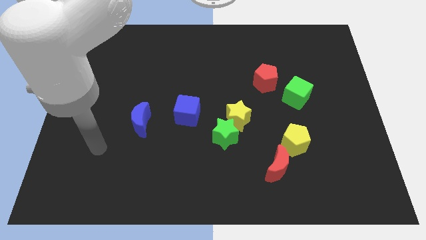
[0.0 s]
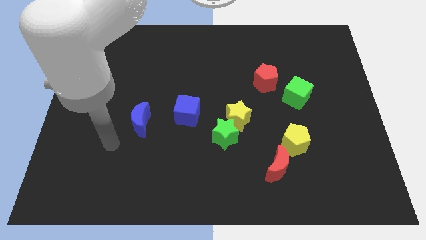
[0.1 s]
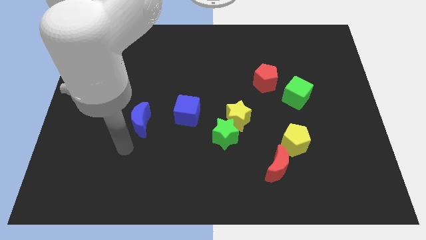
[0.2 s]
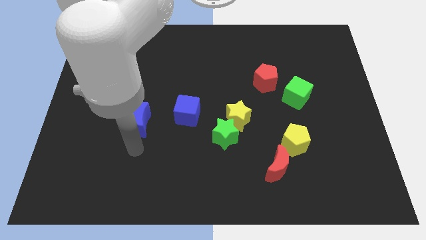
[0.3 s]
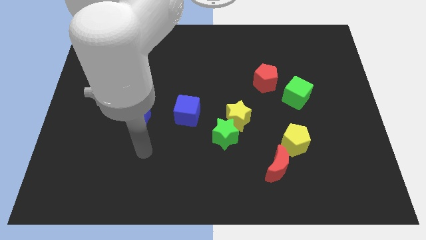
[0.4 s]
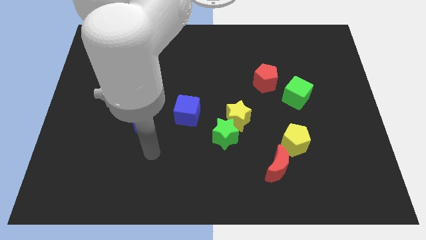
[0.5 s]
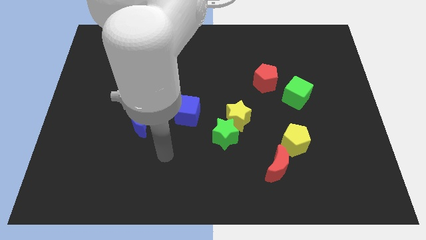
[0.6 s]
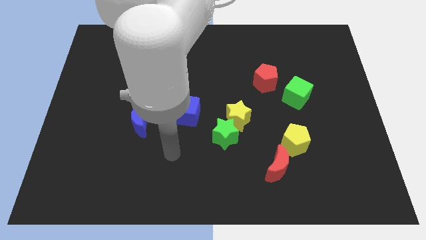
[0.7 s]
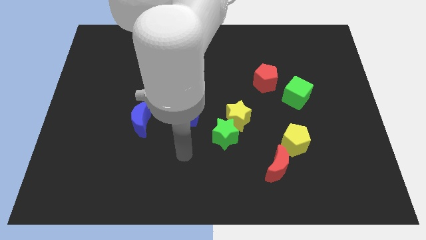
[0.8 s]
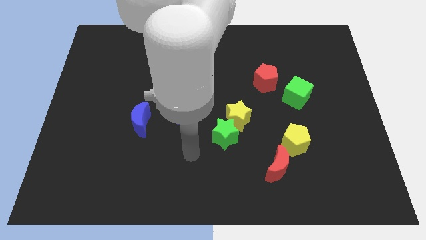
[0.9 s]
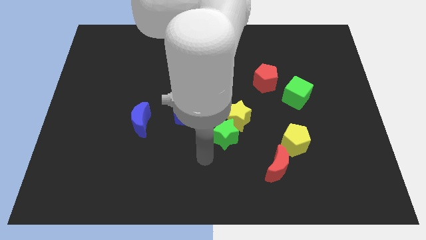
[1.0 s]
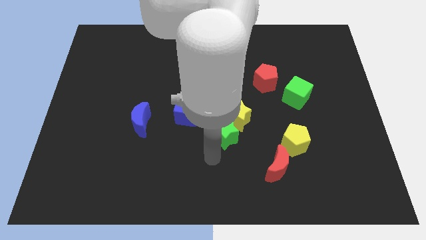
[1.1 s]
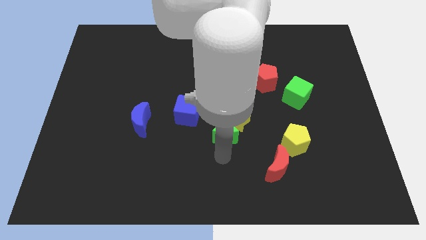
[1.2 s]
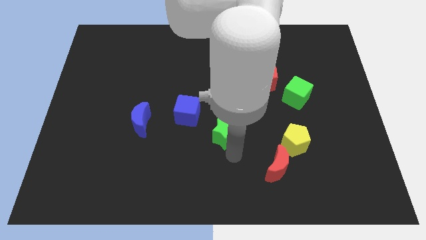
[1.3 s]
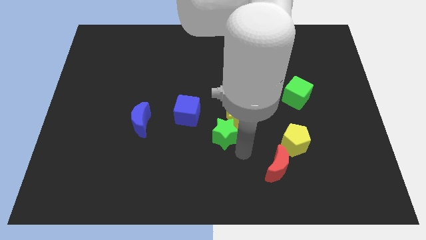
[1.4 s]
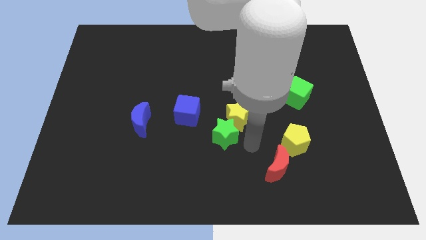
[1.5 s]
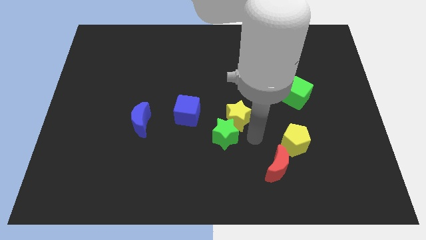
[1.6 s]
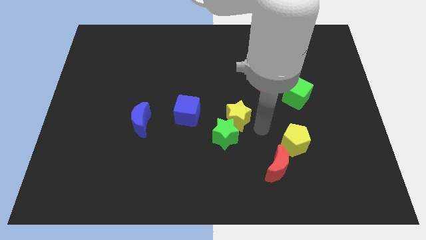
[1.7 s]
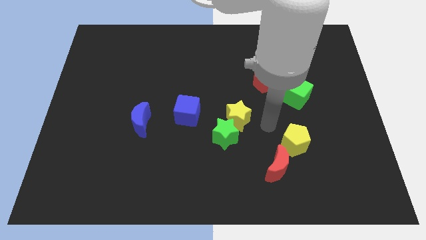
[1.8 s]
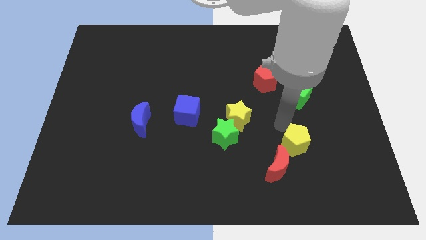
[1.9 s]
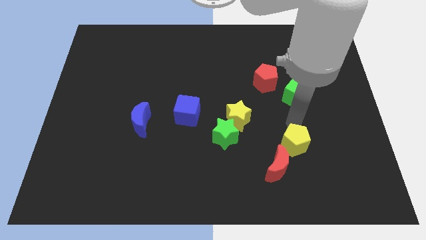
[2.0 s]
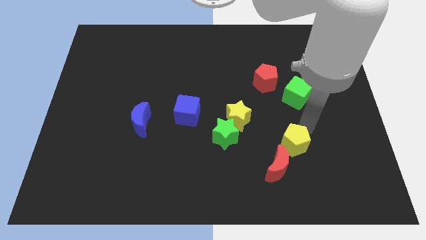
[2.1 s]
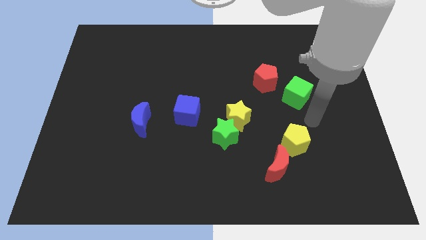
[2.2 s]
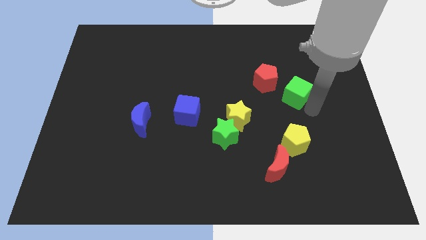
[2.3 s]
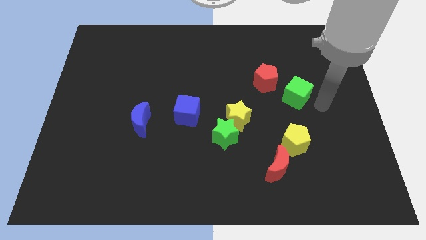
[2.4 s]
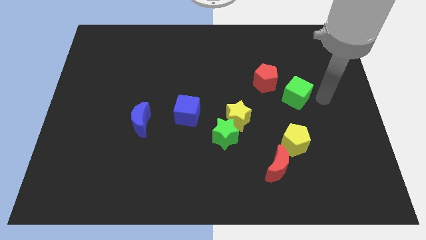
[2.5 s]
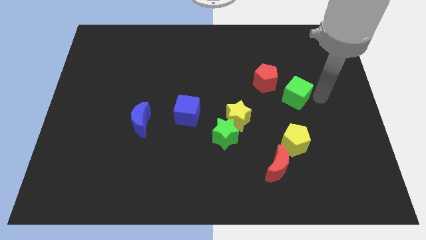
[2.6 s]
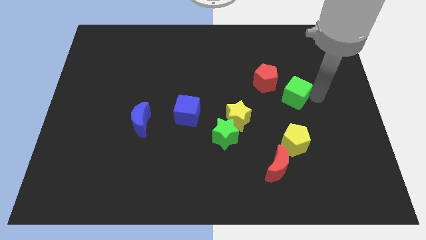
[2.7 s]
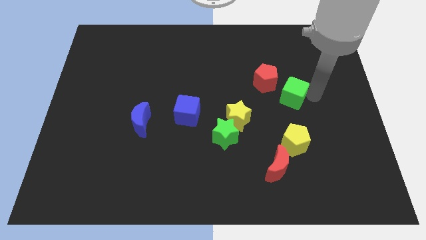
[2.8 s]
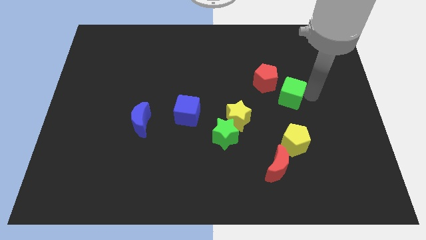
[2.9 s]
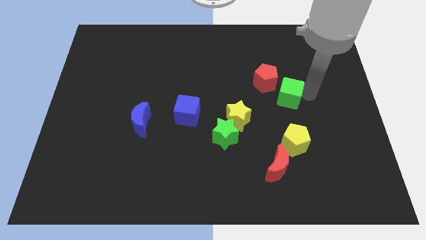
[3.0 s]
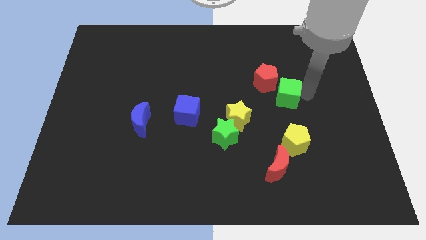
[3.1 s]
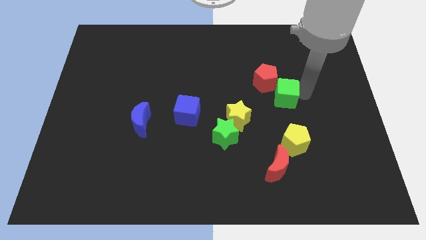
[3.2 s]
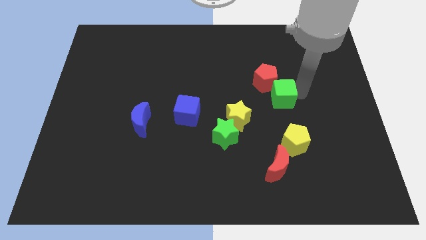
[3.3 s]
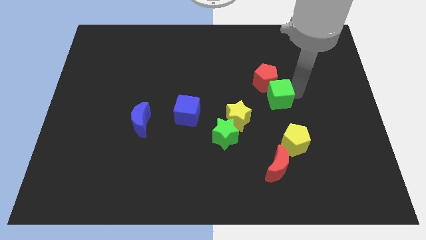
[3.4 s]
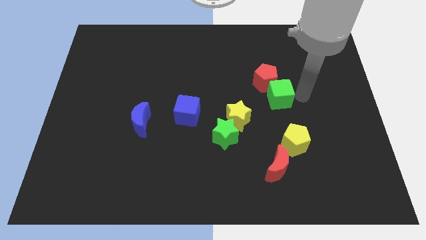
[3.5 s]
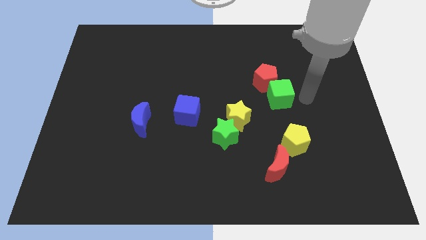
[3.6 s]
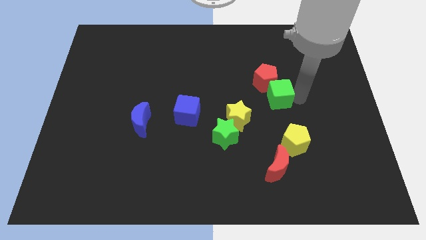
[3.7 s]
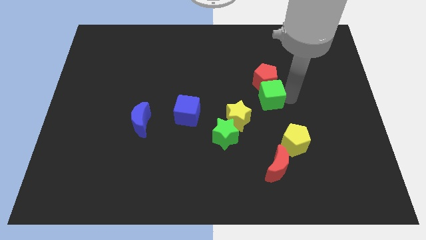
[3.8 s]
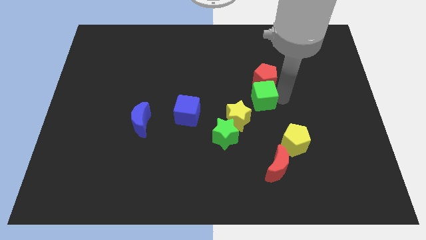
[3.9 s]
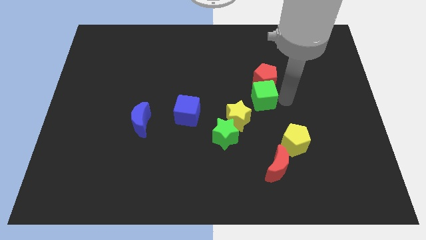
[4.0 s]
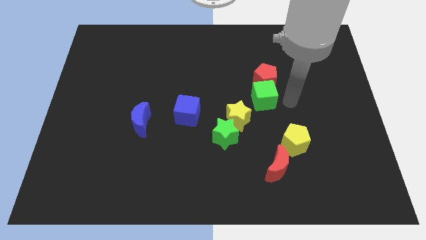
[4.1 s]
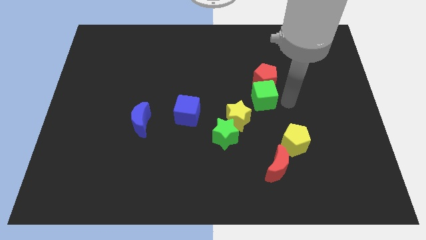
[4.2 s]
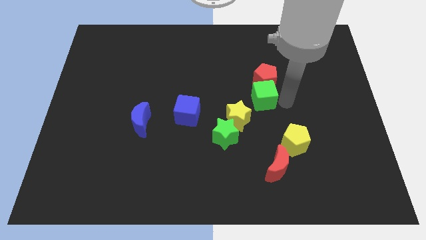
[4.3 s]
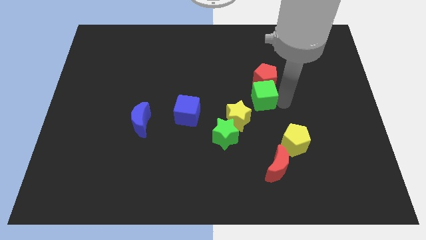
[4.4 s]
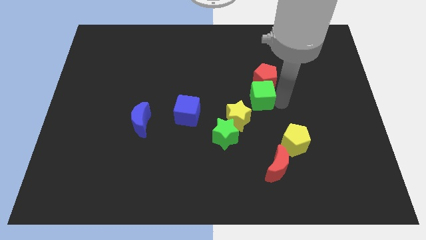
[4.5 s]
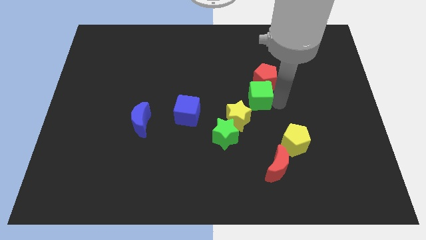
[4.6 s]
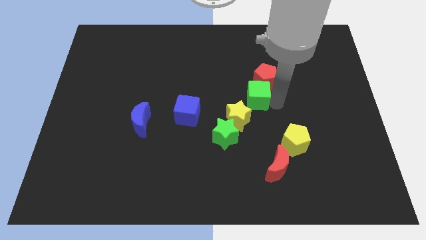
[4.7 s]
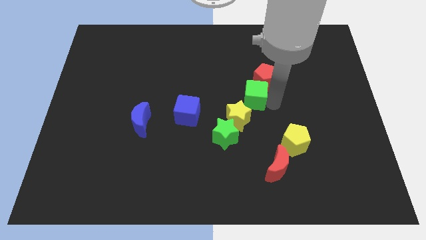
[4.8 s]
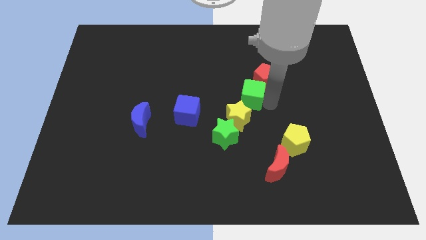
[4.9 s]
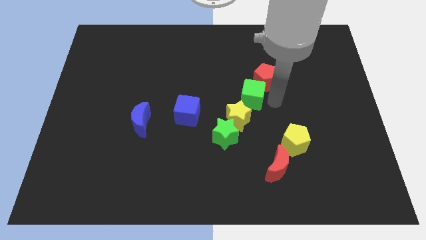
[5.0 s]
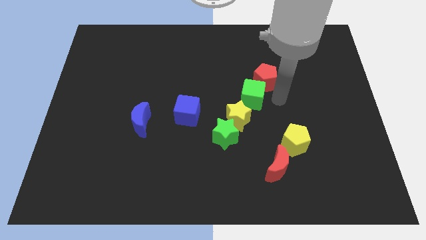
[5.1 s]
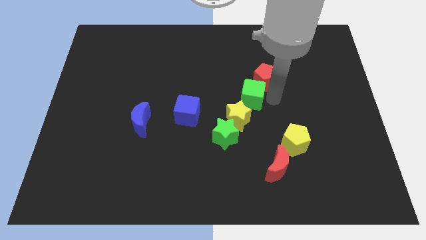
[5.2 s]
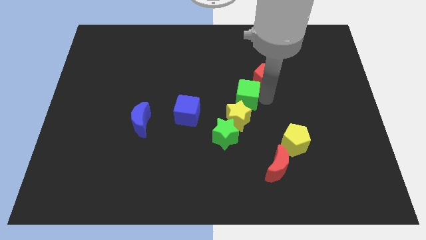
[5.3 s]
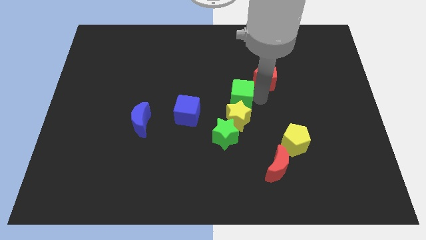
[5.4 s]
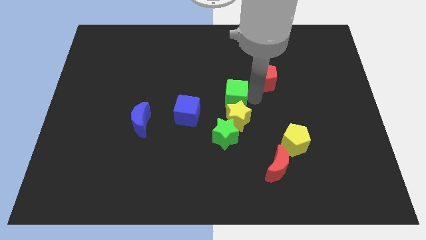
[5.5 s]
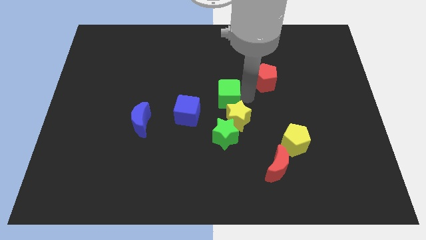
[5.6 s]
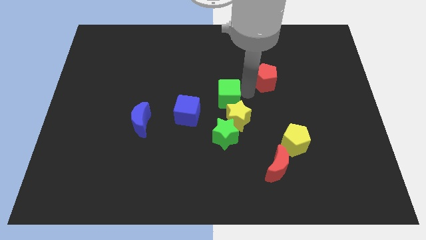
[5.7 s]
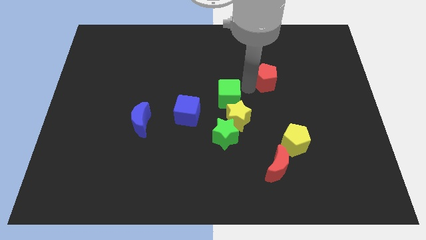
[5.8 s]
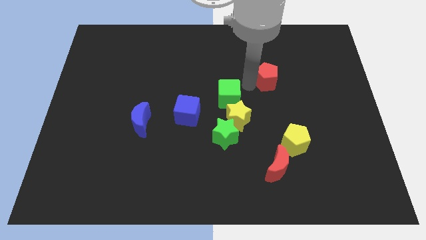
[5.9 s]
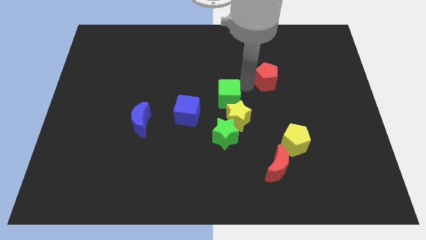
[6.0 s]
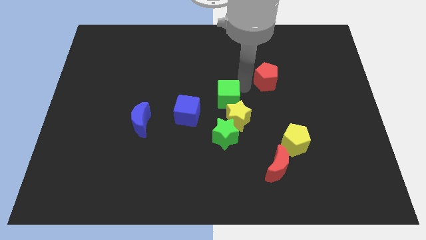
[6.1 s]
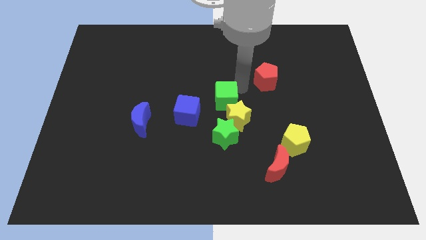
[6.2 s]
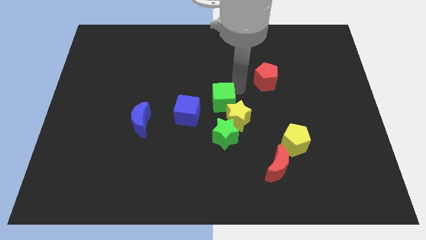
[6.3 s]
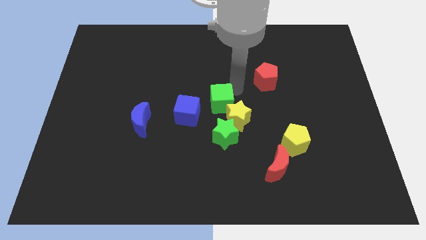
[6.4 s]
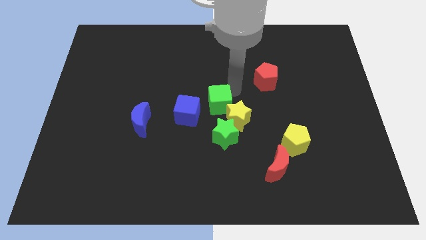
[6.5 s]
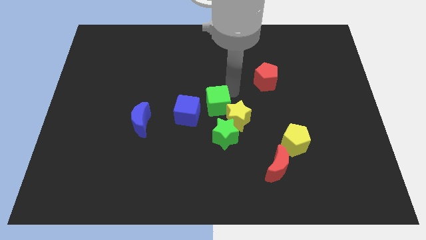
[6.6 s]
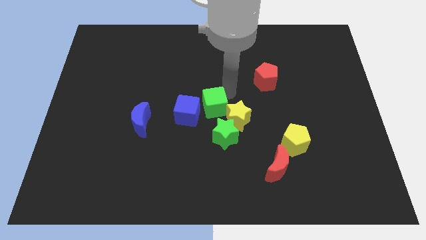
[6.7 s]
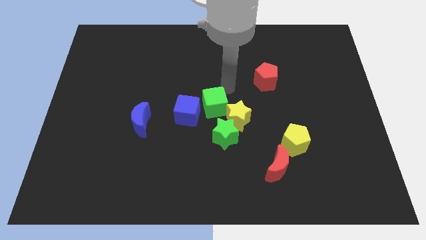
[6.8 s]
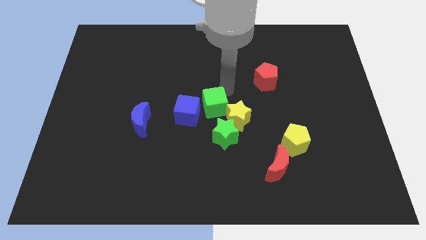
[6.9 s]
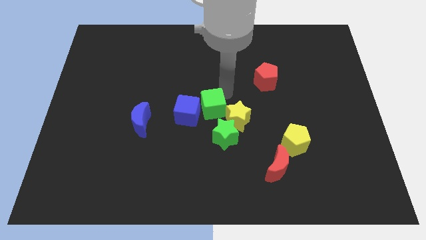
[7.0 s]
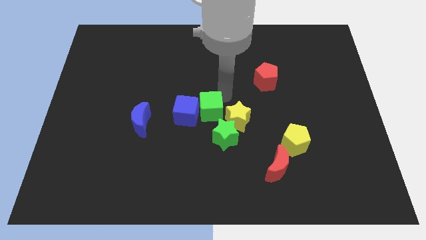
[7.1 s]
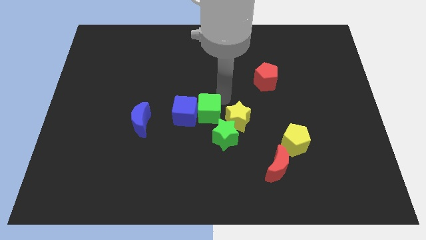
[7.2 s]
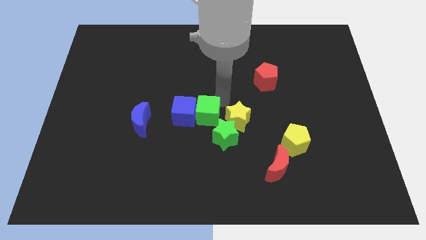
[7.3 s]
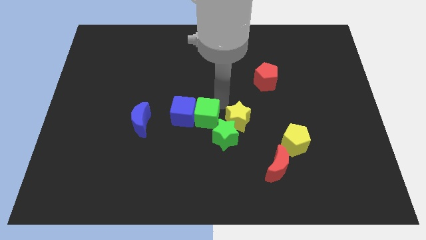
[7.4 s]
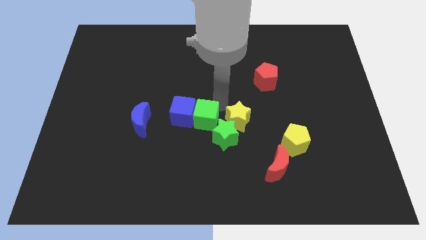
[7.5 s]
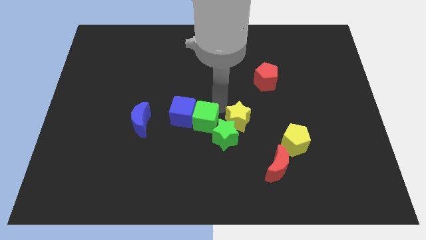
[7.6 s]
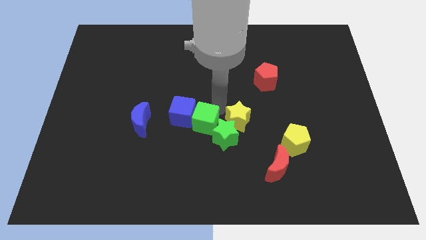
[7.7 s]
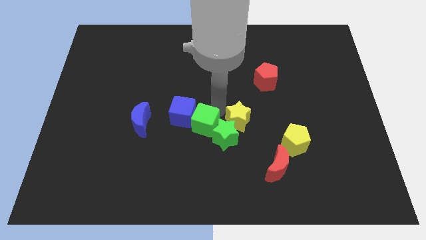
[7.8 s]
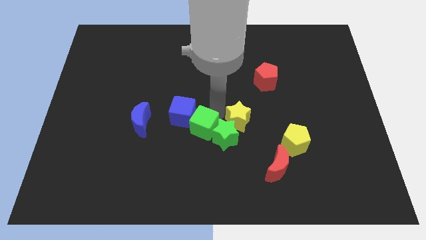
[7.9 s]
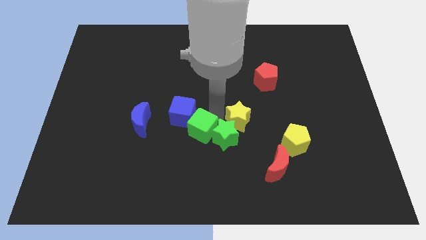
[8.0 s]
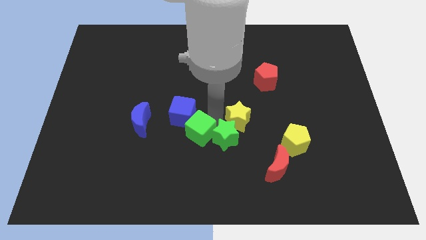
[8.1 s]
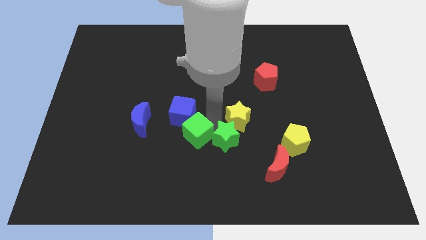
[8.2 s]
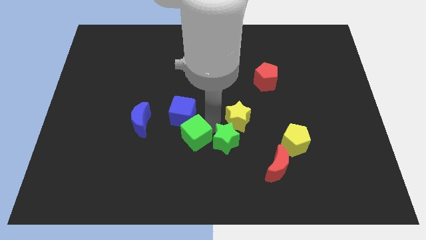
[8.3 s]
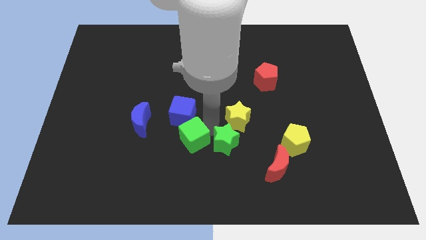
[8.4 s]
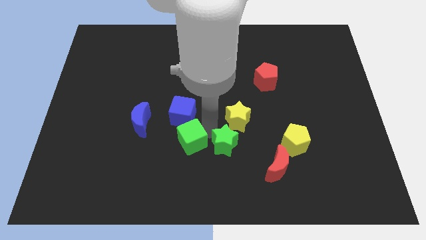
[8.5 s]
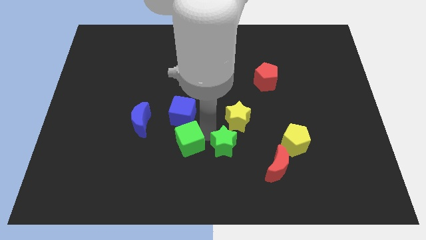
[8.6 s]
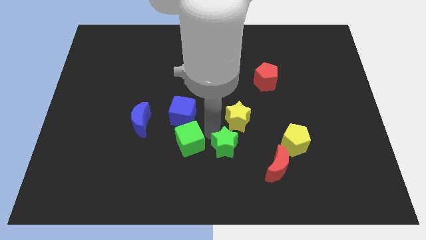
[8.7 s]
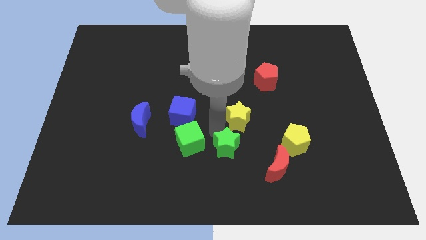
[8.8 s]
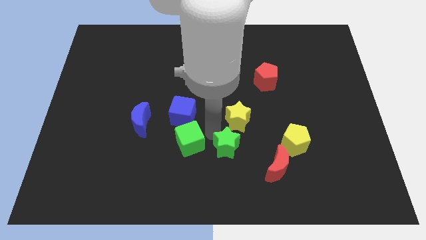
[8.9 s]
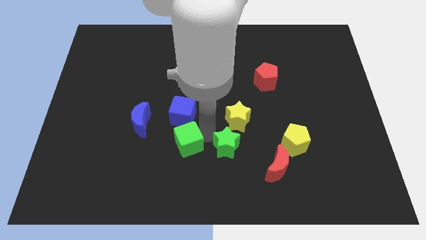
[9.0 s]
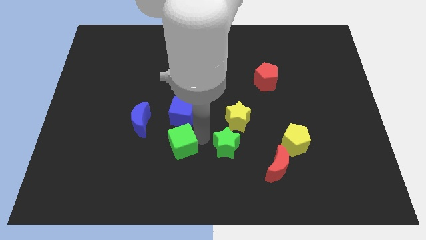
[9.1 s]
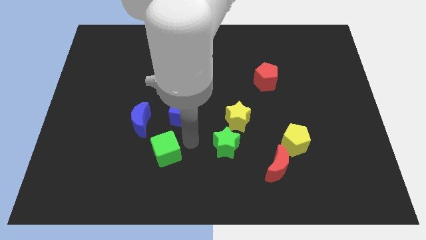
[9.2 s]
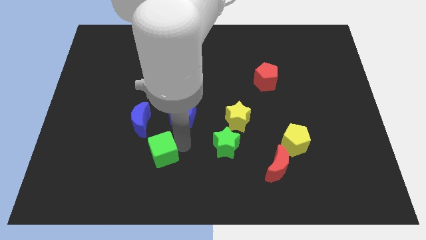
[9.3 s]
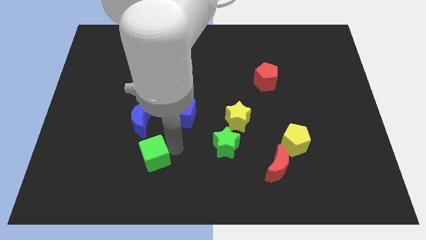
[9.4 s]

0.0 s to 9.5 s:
push the green cube below the blue moon
